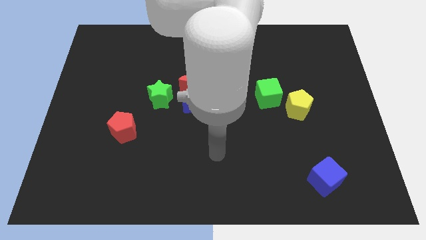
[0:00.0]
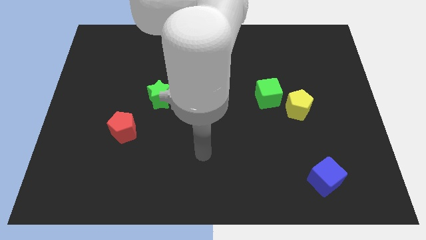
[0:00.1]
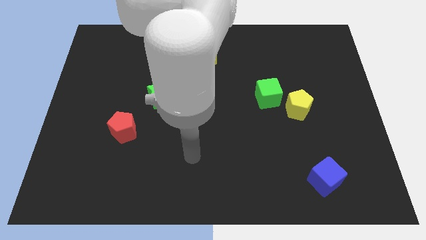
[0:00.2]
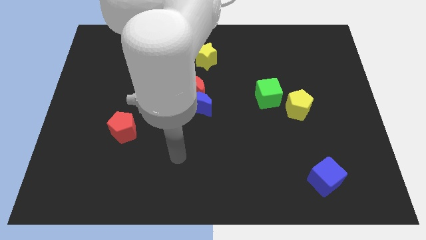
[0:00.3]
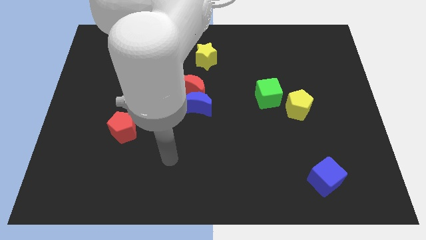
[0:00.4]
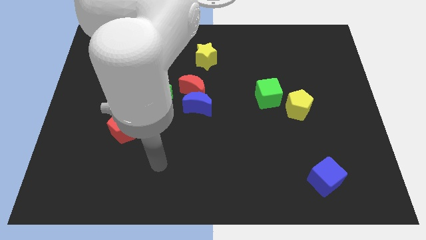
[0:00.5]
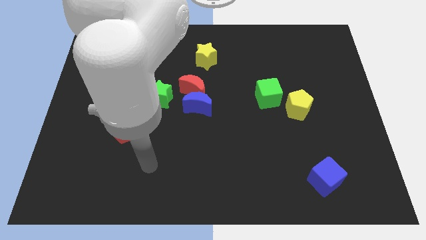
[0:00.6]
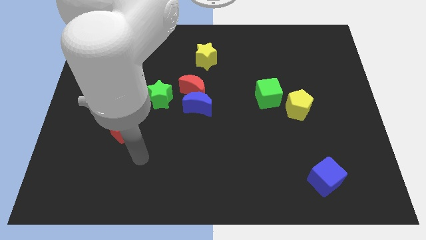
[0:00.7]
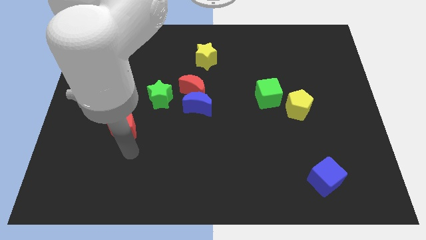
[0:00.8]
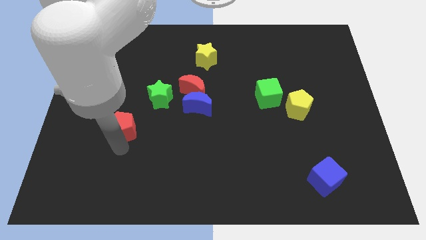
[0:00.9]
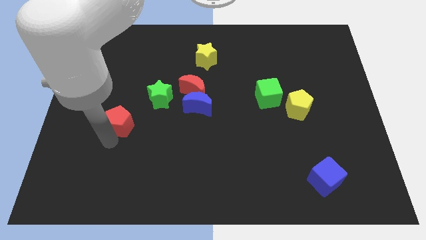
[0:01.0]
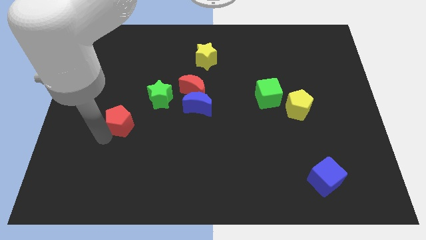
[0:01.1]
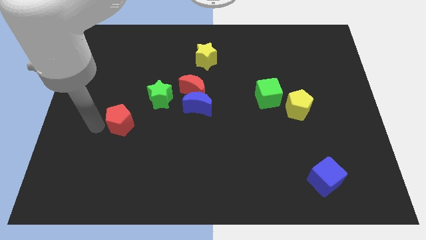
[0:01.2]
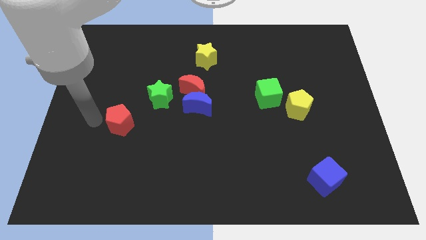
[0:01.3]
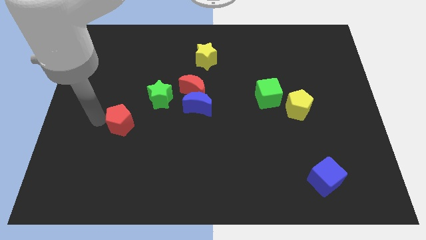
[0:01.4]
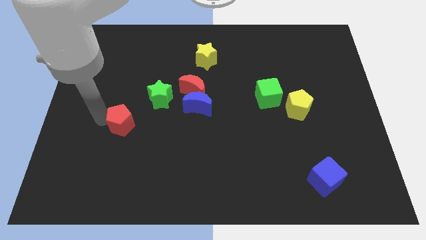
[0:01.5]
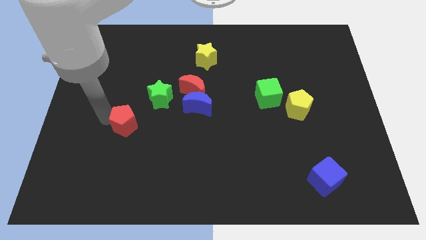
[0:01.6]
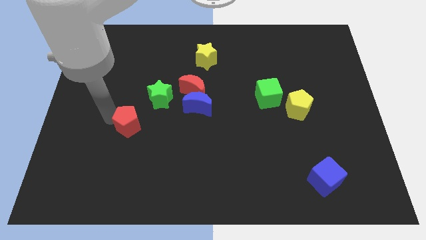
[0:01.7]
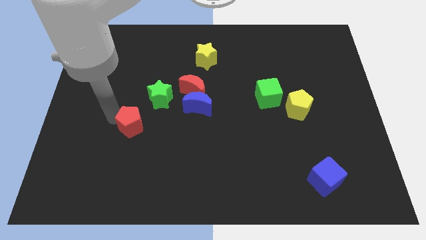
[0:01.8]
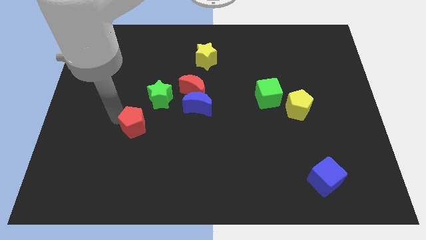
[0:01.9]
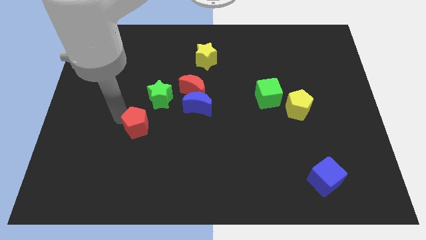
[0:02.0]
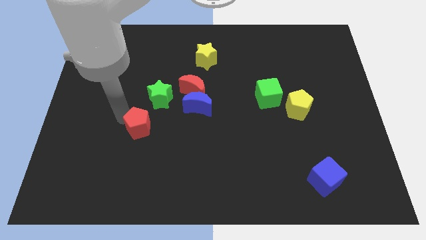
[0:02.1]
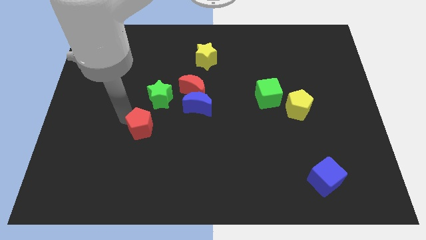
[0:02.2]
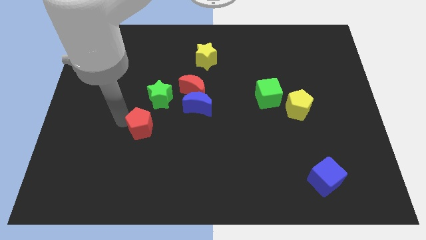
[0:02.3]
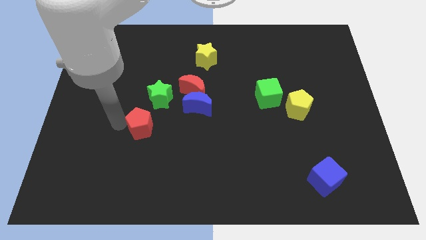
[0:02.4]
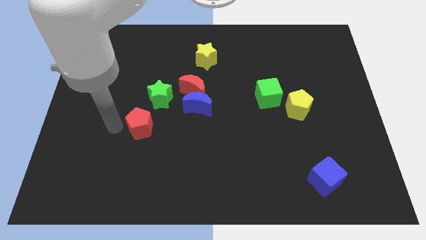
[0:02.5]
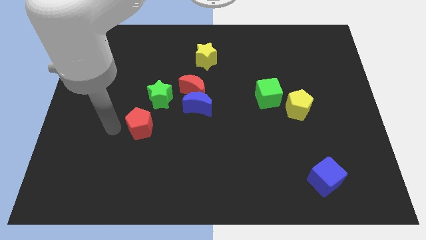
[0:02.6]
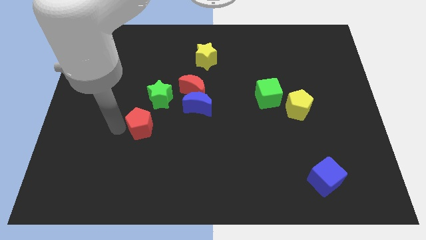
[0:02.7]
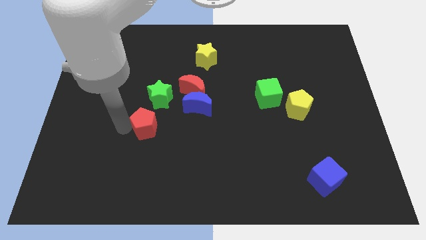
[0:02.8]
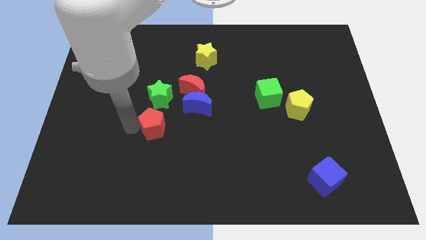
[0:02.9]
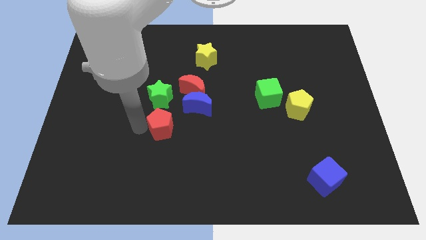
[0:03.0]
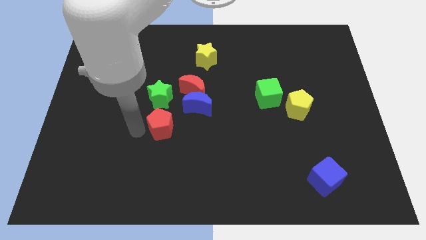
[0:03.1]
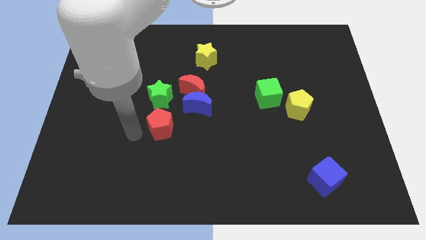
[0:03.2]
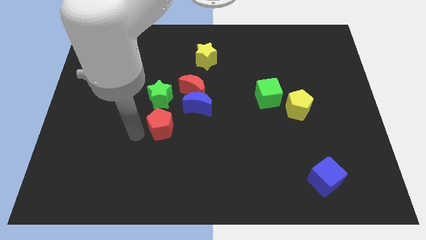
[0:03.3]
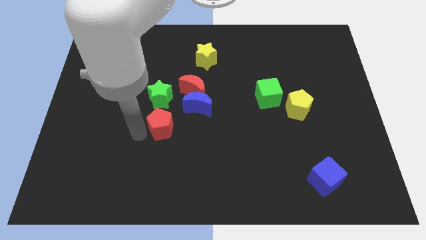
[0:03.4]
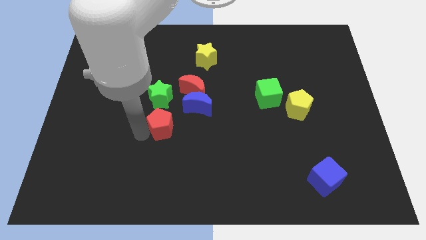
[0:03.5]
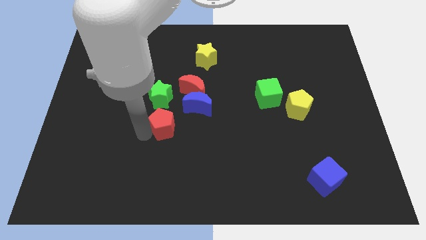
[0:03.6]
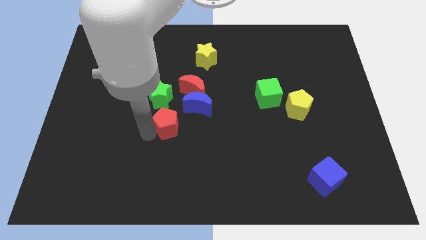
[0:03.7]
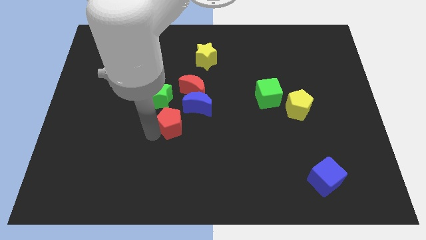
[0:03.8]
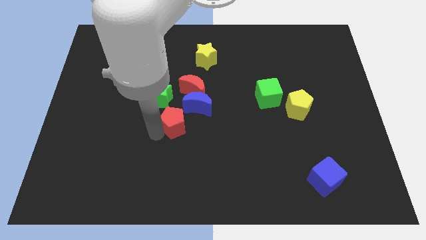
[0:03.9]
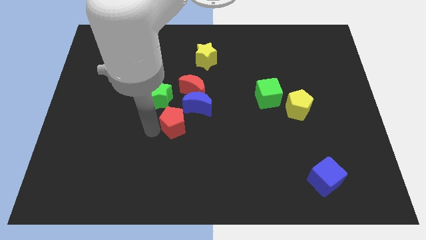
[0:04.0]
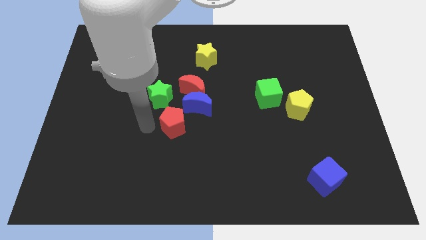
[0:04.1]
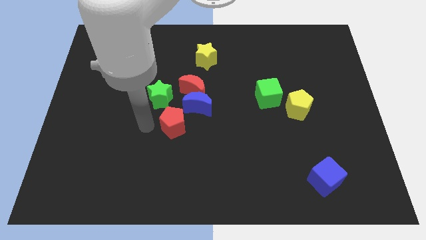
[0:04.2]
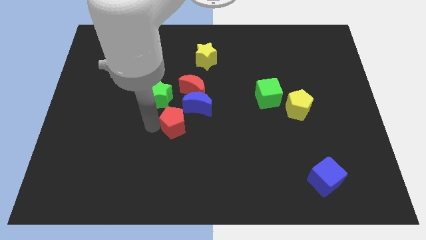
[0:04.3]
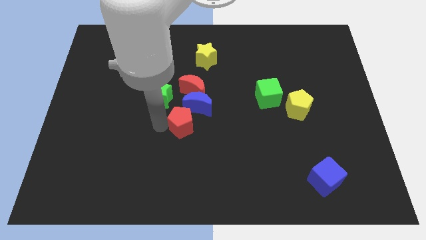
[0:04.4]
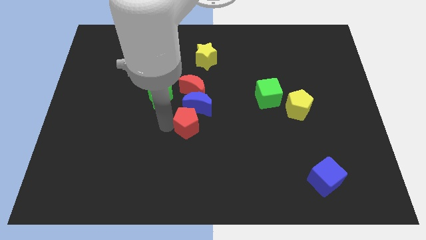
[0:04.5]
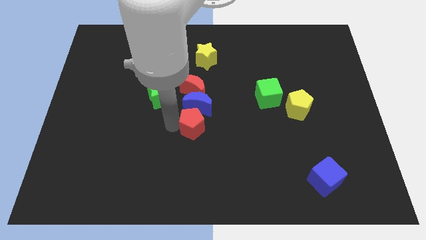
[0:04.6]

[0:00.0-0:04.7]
put the red pentagon to the bottom right side of the blue moon

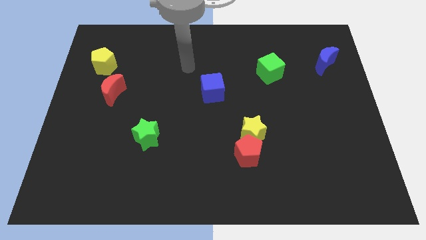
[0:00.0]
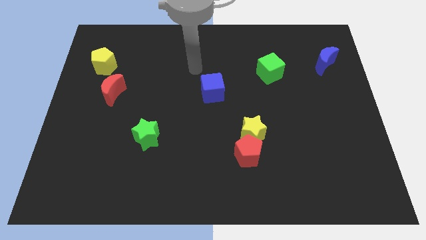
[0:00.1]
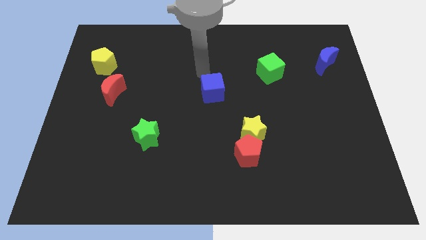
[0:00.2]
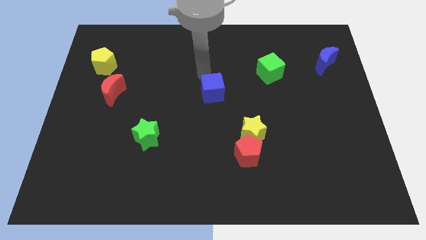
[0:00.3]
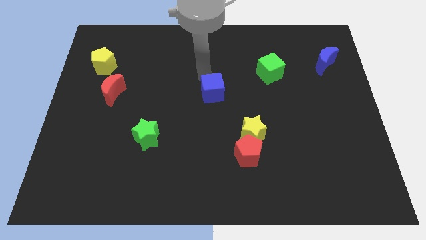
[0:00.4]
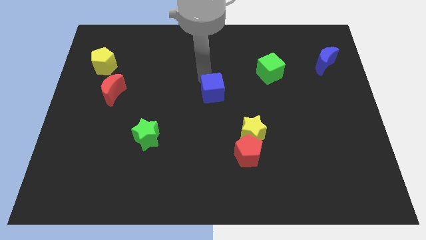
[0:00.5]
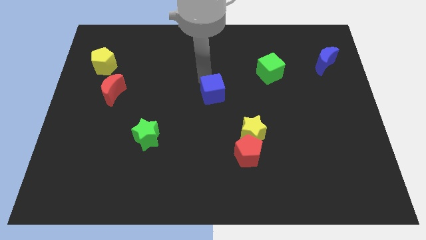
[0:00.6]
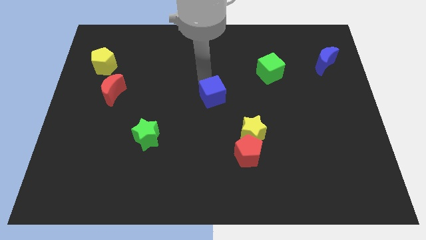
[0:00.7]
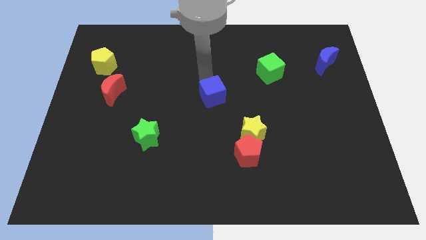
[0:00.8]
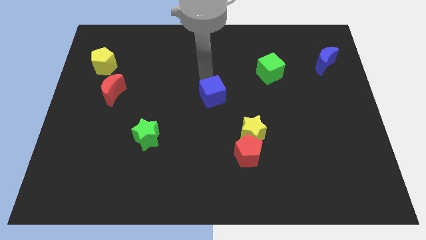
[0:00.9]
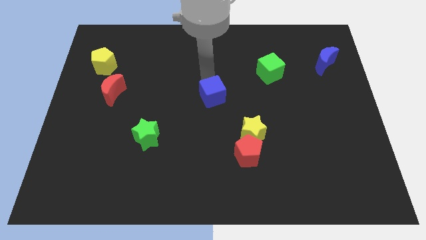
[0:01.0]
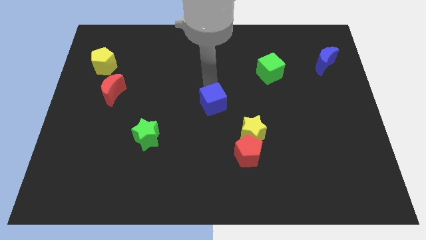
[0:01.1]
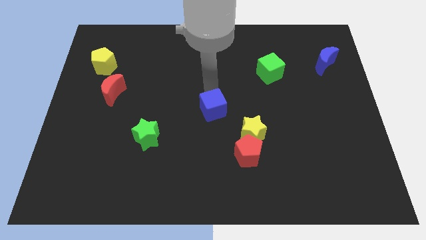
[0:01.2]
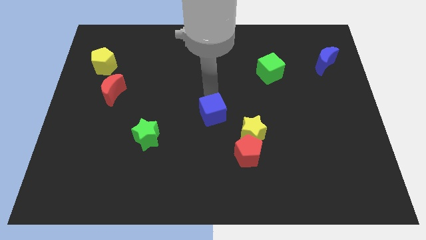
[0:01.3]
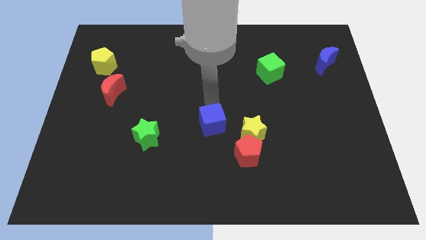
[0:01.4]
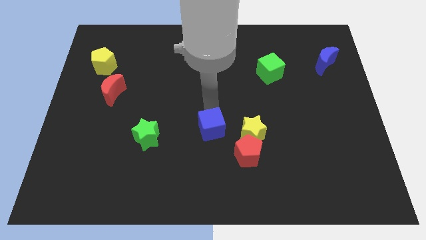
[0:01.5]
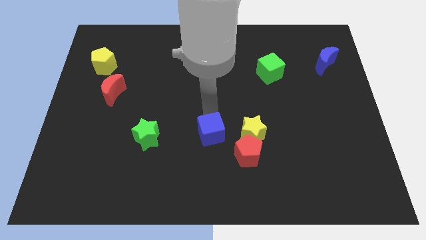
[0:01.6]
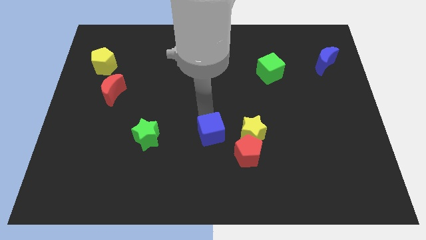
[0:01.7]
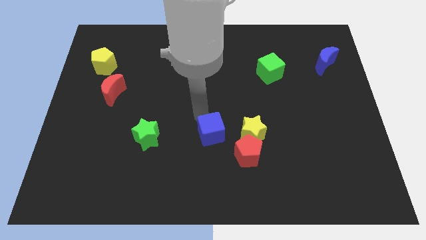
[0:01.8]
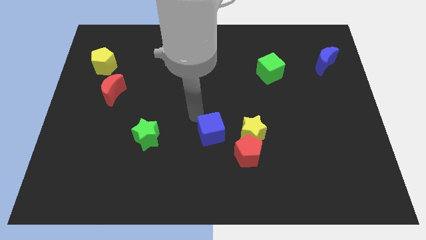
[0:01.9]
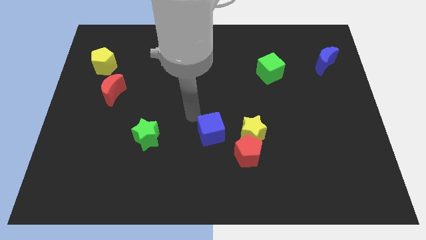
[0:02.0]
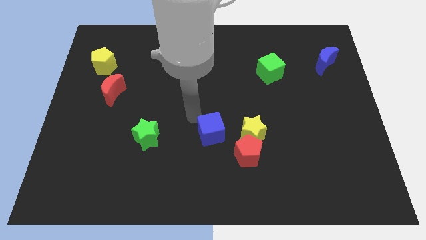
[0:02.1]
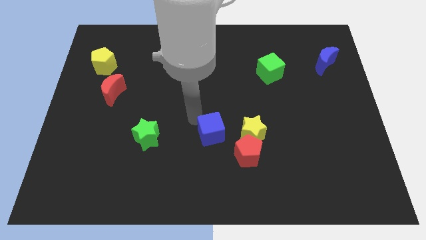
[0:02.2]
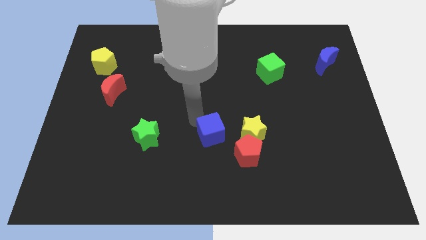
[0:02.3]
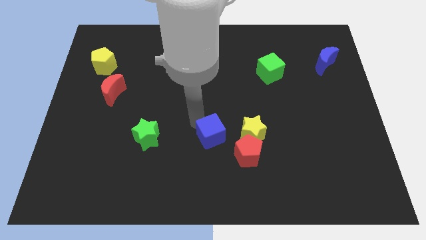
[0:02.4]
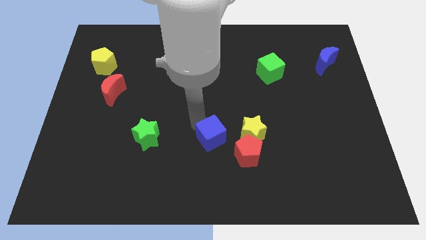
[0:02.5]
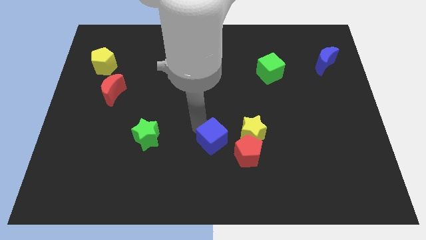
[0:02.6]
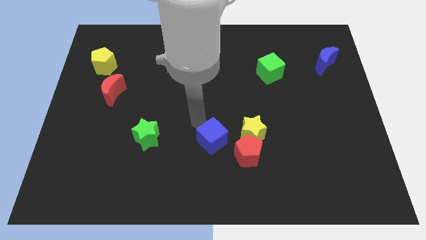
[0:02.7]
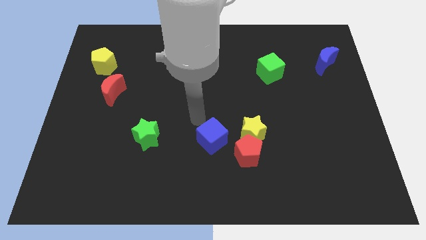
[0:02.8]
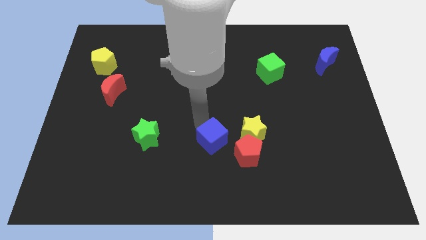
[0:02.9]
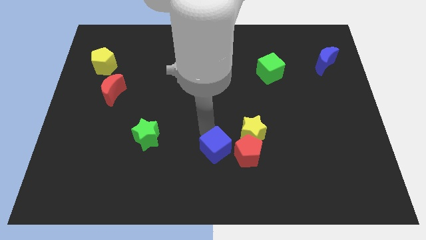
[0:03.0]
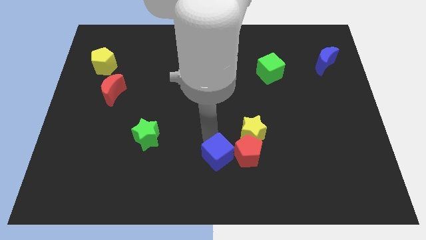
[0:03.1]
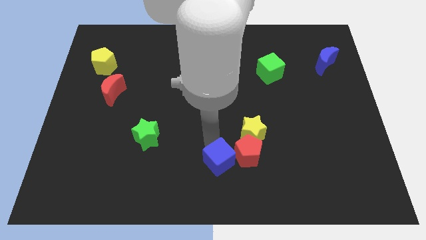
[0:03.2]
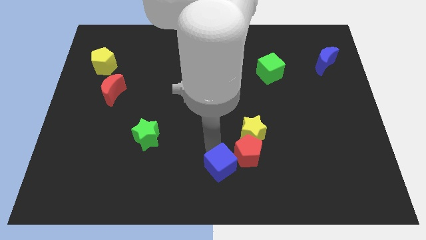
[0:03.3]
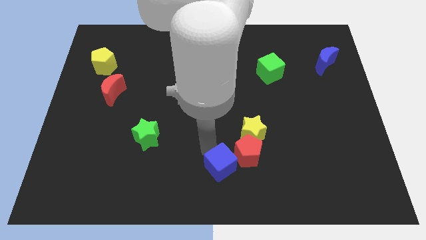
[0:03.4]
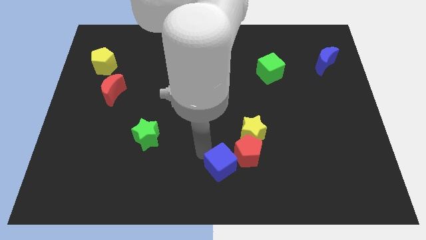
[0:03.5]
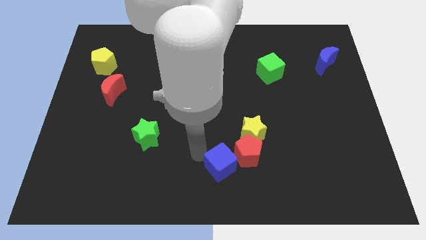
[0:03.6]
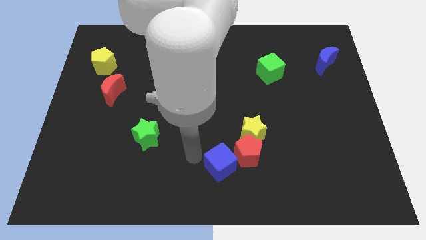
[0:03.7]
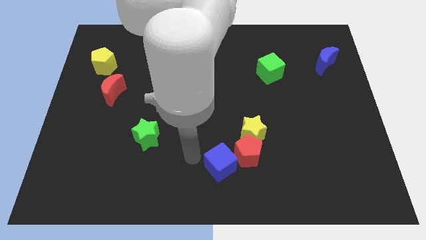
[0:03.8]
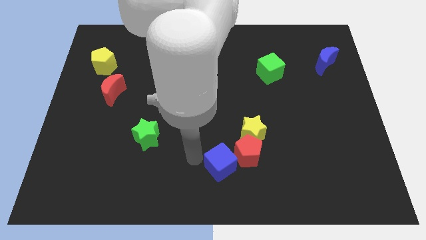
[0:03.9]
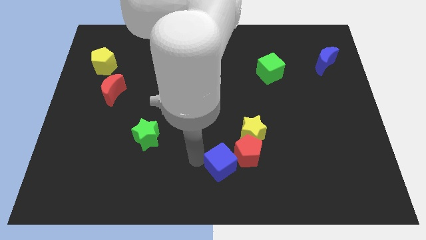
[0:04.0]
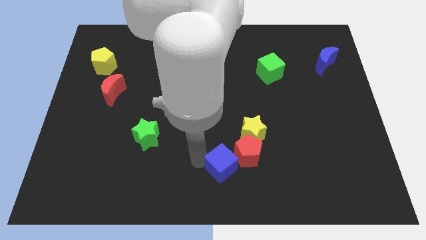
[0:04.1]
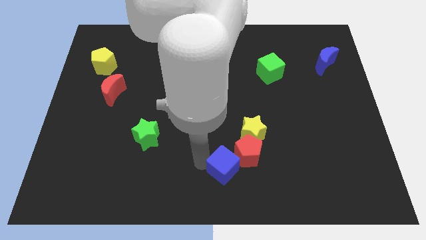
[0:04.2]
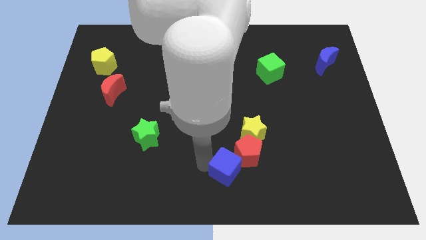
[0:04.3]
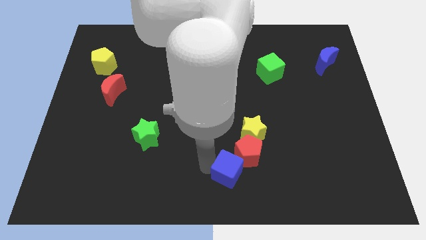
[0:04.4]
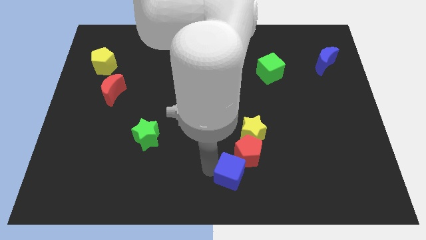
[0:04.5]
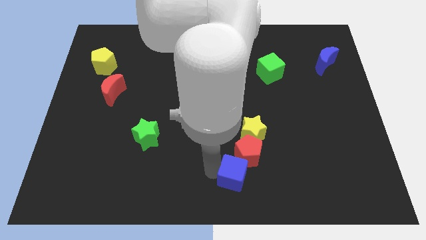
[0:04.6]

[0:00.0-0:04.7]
move the blue cube to the bottom side of the yellow star
